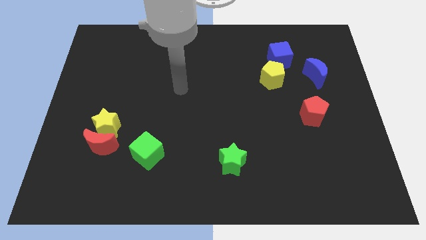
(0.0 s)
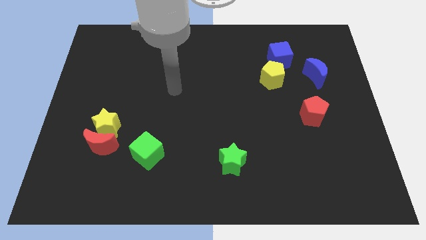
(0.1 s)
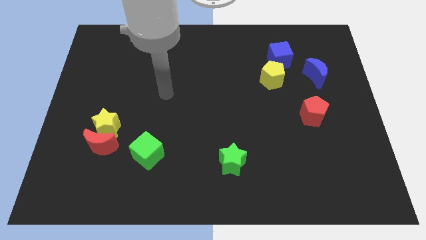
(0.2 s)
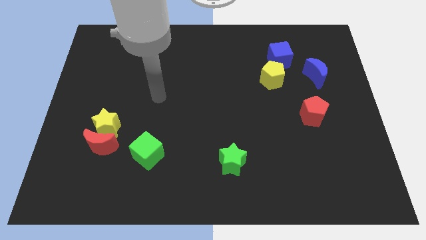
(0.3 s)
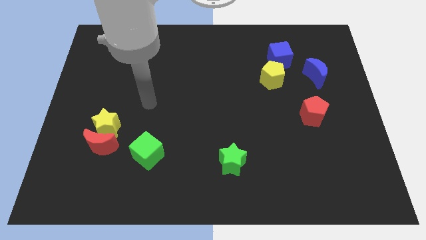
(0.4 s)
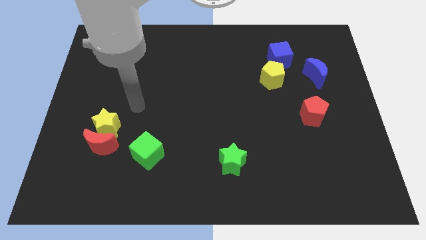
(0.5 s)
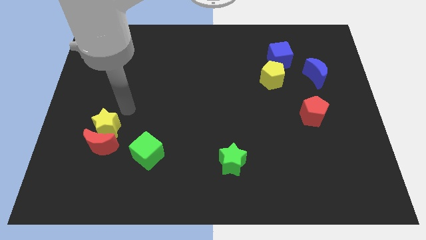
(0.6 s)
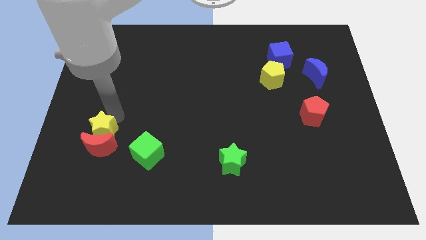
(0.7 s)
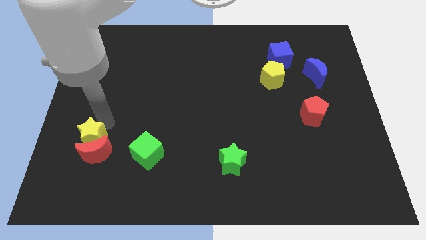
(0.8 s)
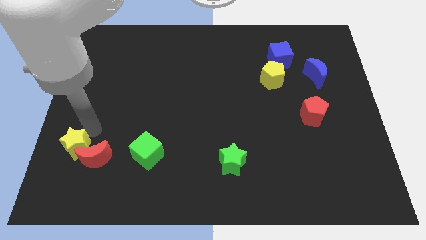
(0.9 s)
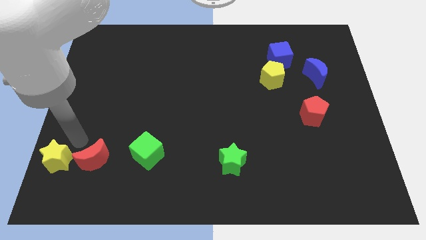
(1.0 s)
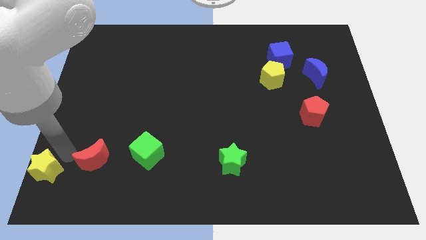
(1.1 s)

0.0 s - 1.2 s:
move the red moon away from the yellow star

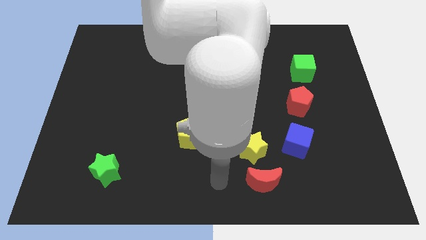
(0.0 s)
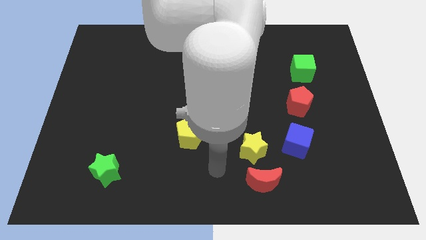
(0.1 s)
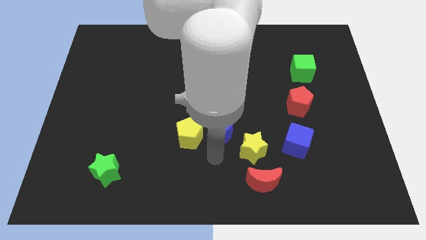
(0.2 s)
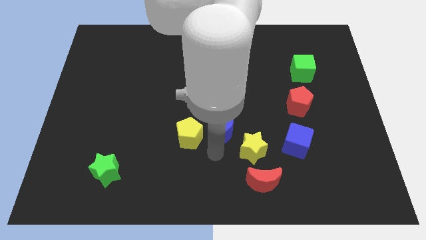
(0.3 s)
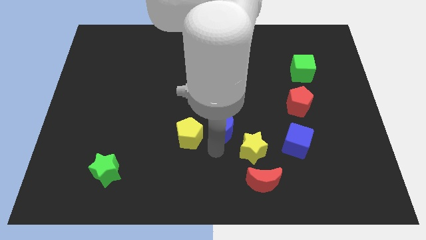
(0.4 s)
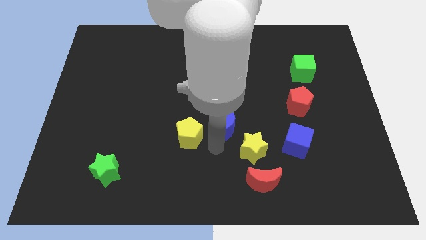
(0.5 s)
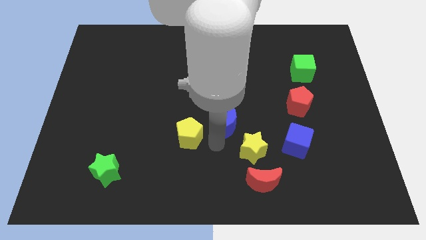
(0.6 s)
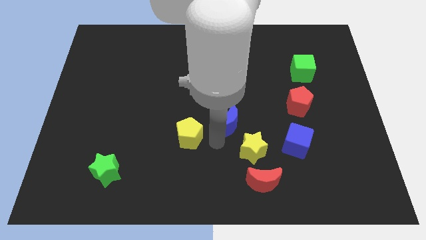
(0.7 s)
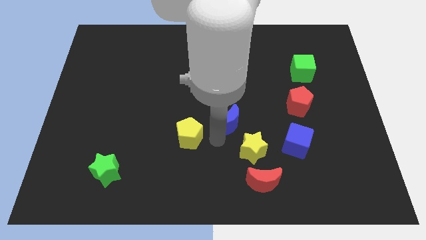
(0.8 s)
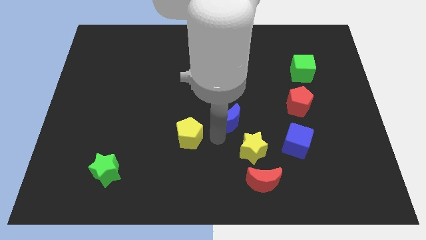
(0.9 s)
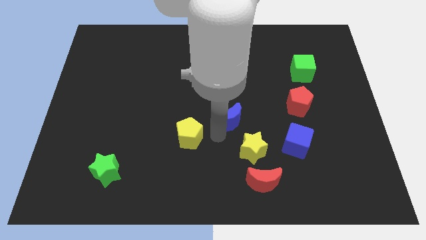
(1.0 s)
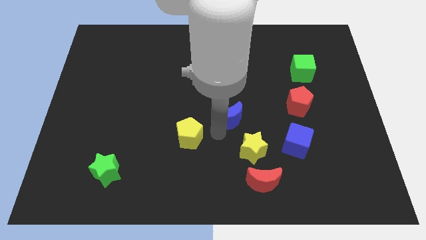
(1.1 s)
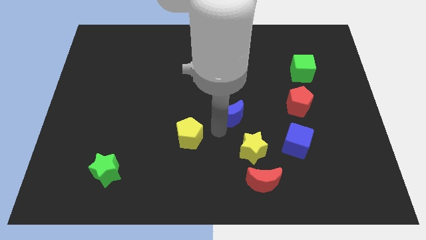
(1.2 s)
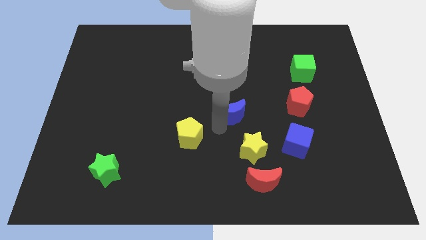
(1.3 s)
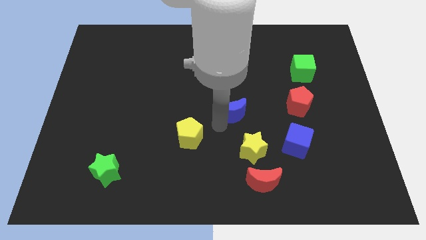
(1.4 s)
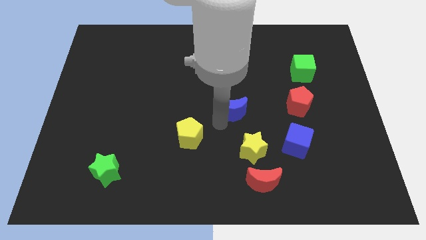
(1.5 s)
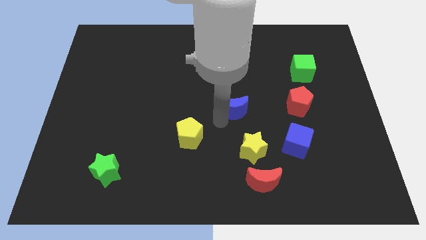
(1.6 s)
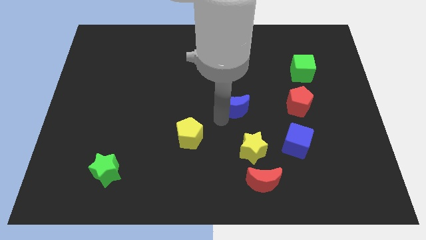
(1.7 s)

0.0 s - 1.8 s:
pull the blue moon apart from the yellow star and yellow pentagon

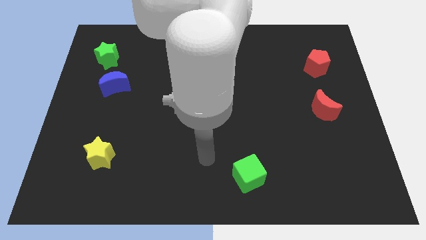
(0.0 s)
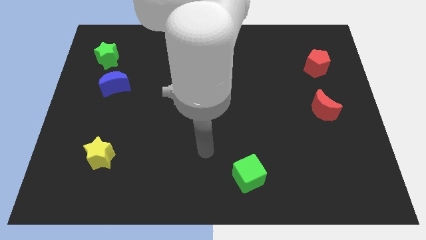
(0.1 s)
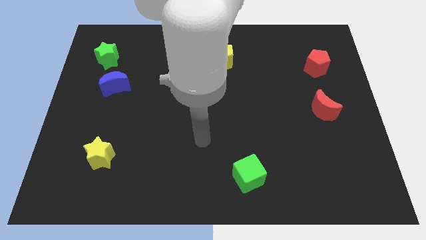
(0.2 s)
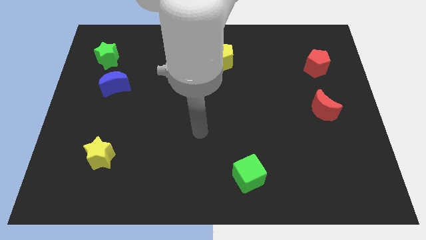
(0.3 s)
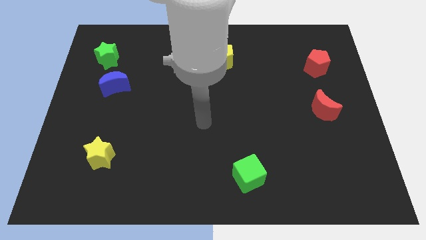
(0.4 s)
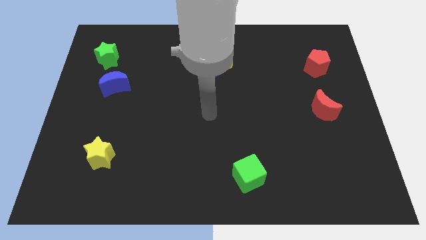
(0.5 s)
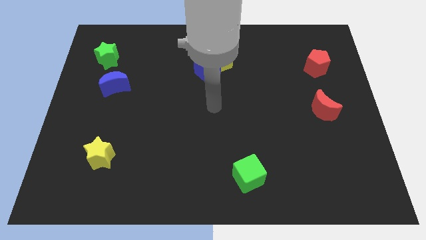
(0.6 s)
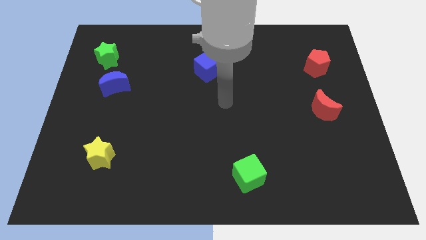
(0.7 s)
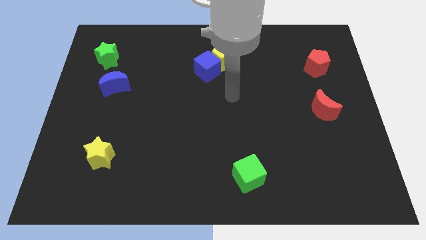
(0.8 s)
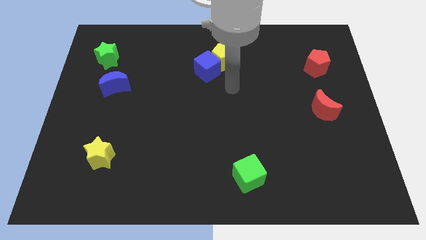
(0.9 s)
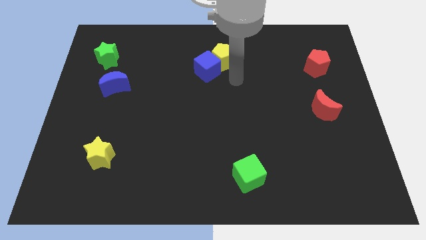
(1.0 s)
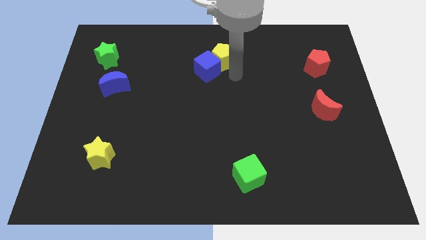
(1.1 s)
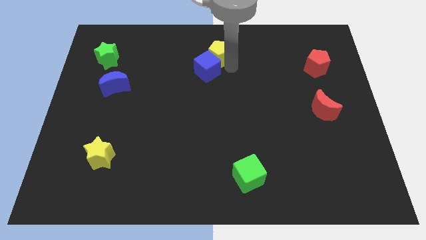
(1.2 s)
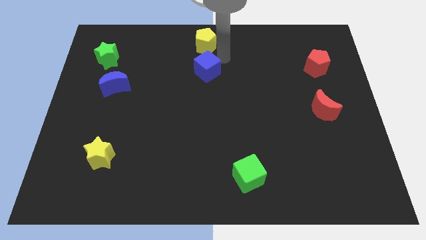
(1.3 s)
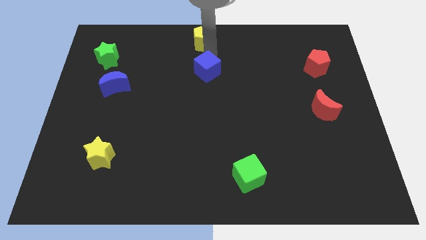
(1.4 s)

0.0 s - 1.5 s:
pull the blue cube apart from the yellow pentagon

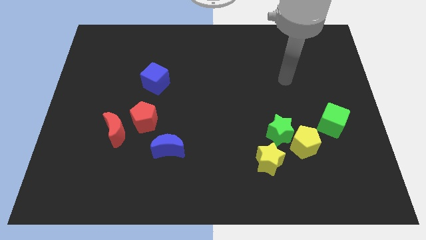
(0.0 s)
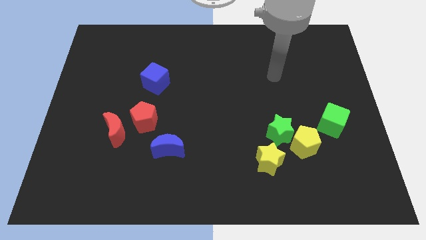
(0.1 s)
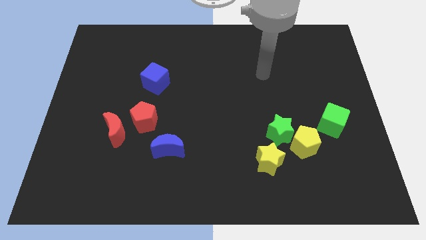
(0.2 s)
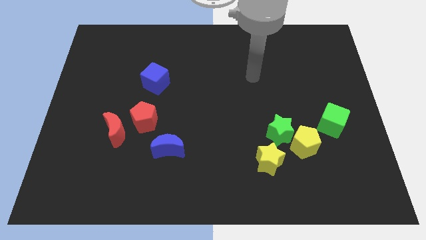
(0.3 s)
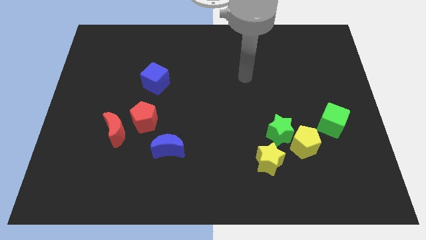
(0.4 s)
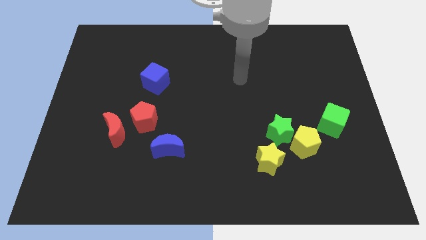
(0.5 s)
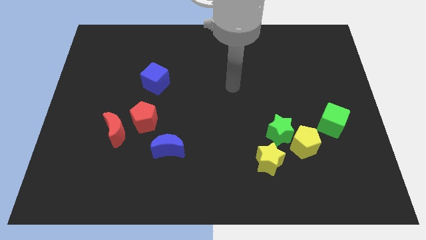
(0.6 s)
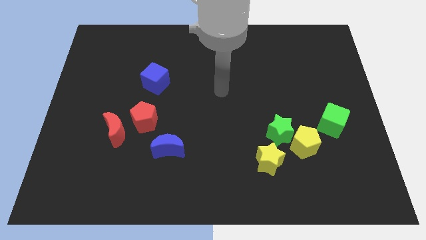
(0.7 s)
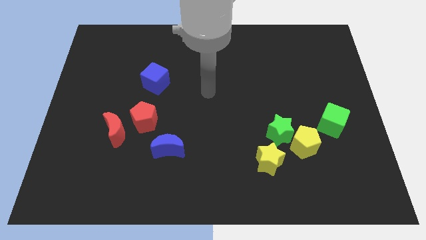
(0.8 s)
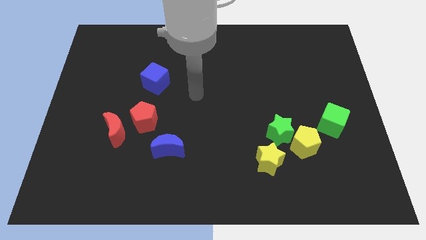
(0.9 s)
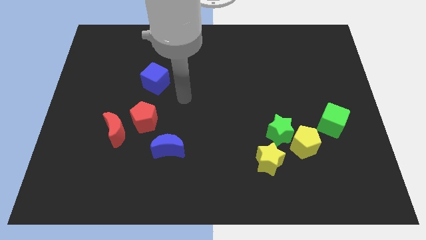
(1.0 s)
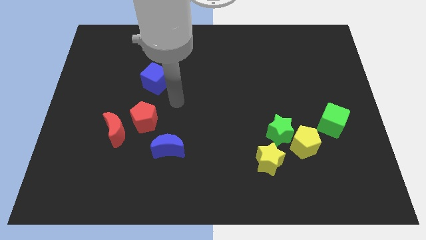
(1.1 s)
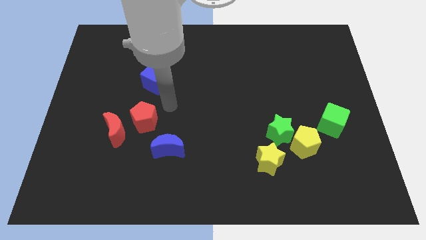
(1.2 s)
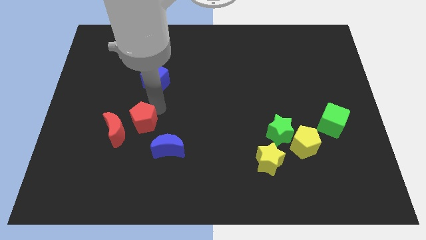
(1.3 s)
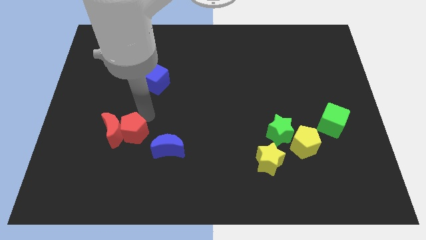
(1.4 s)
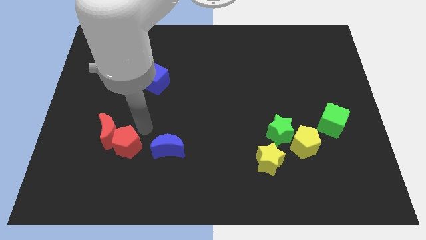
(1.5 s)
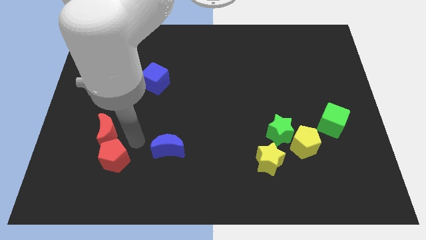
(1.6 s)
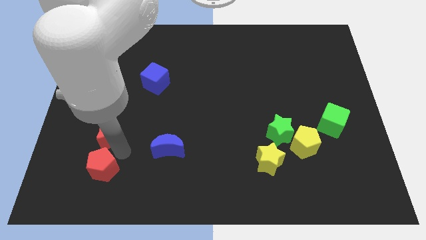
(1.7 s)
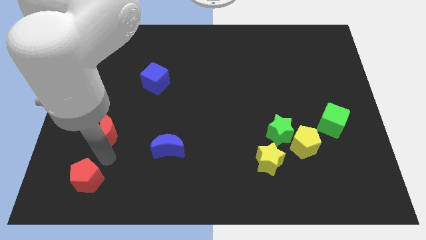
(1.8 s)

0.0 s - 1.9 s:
move the red moon away from the red pentagon

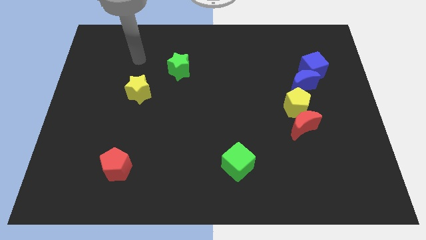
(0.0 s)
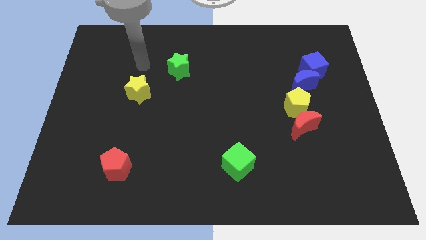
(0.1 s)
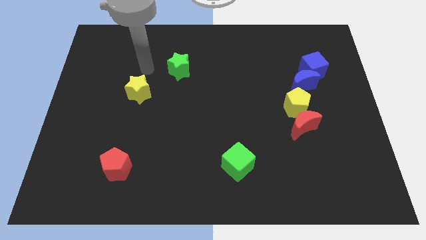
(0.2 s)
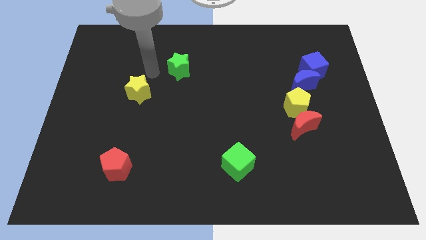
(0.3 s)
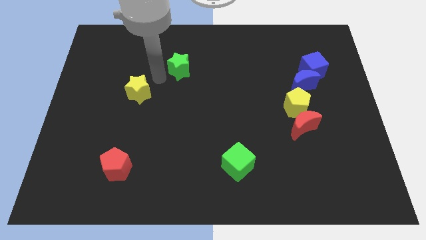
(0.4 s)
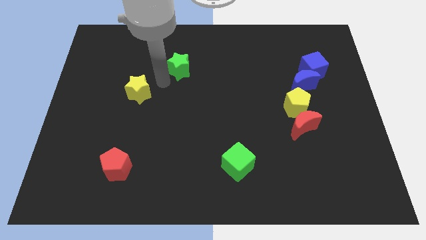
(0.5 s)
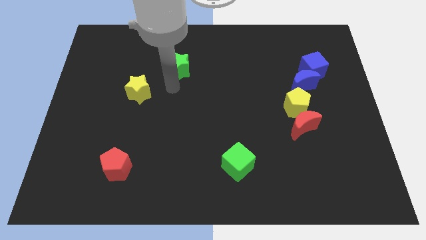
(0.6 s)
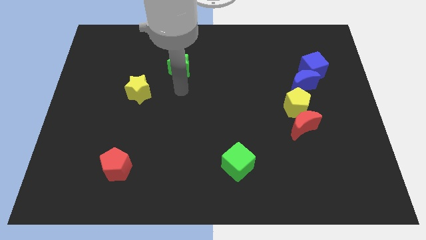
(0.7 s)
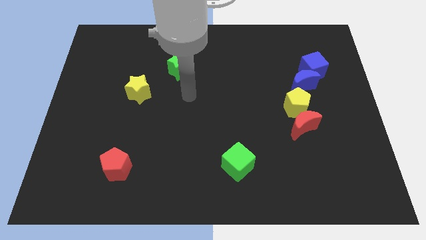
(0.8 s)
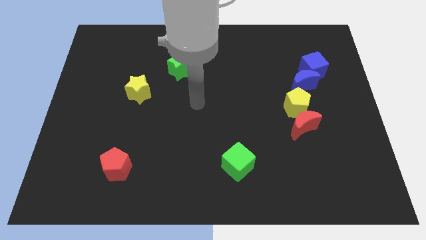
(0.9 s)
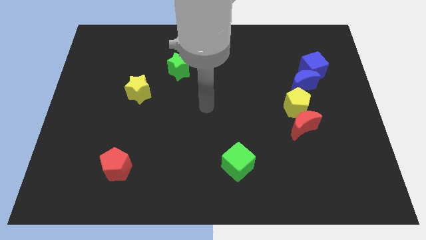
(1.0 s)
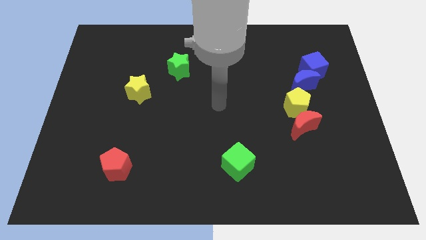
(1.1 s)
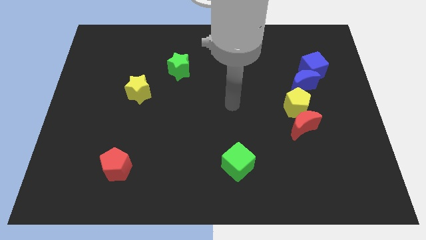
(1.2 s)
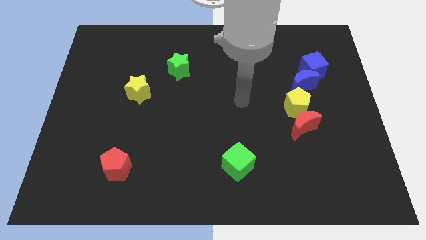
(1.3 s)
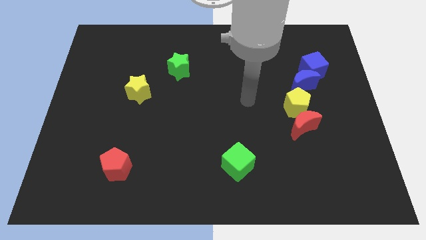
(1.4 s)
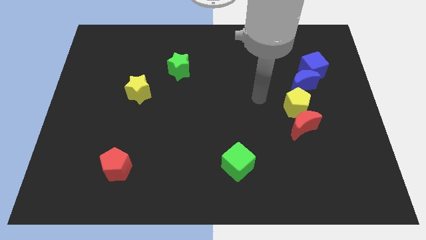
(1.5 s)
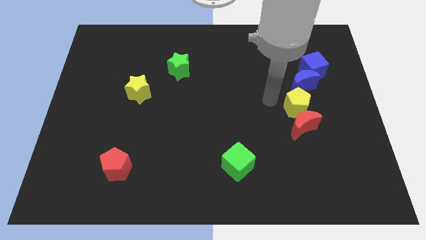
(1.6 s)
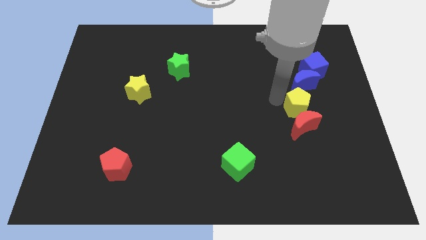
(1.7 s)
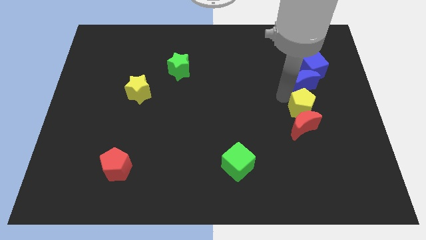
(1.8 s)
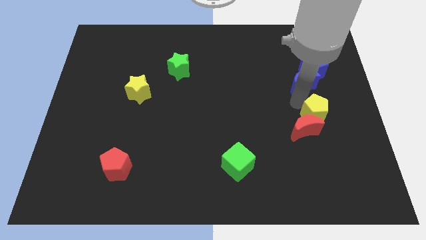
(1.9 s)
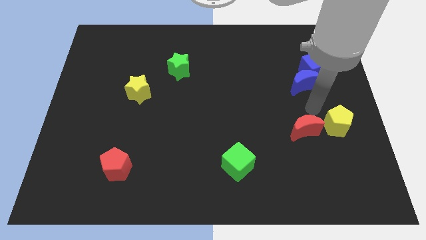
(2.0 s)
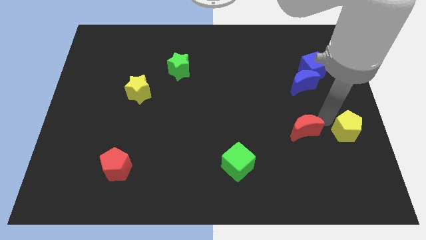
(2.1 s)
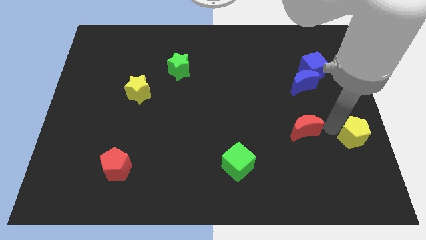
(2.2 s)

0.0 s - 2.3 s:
separate the red moon from the yellow pentagon

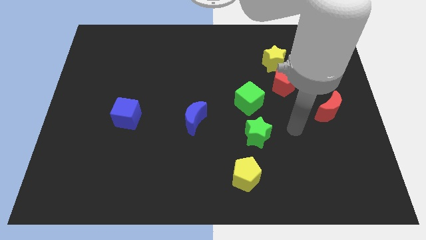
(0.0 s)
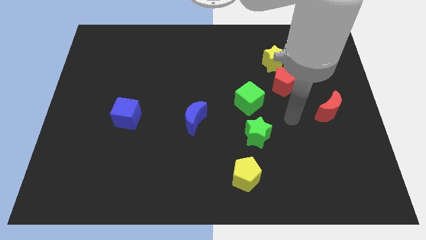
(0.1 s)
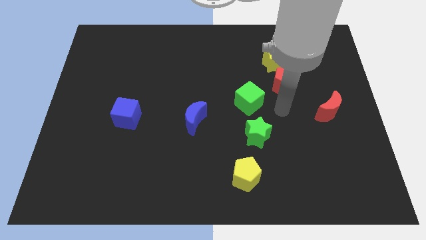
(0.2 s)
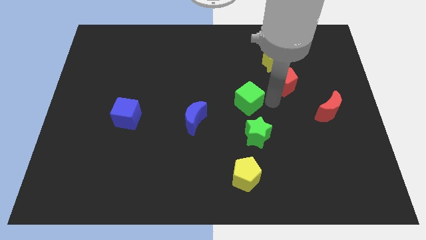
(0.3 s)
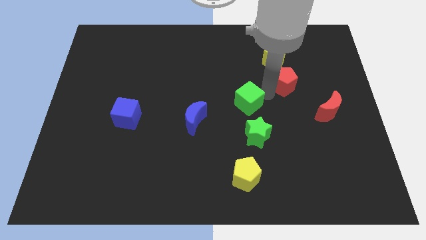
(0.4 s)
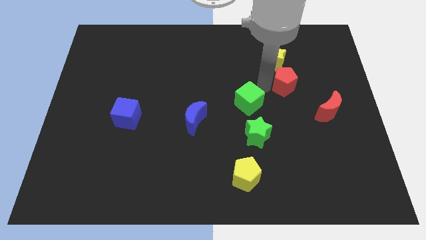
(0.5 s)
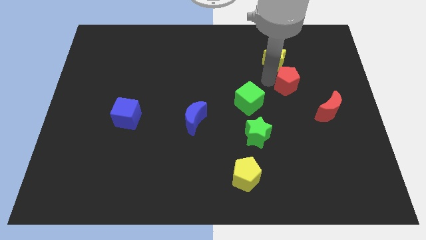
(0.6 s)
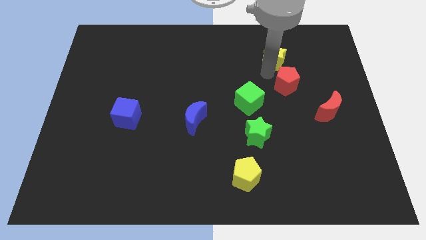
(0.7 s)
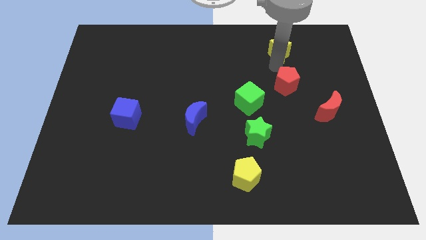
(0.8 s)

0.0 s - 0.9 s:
pull the red pentagon apart from the yellow star
